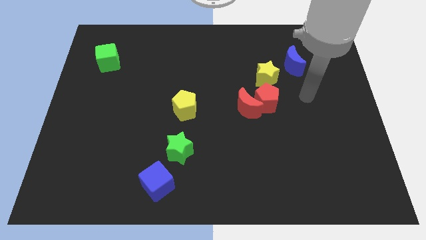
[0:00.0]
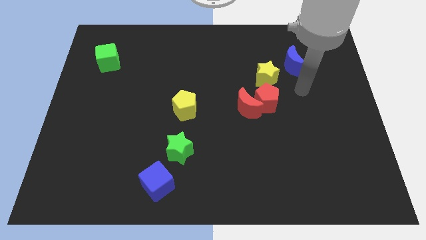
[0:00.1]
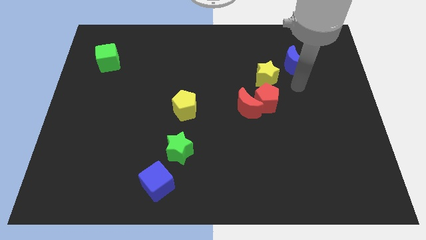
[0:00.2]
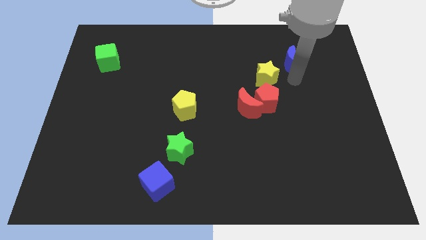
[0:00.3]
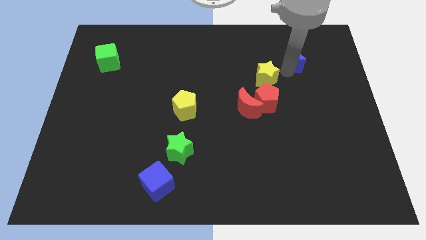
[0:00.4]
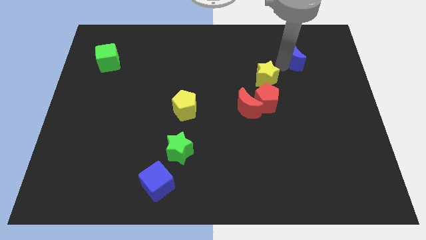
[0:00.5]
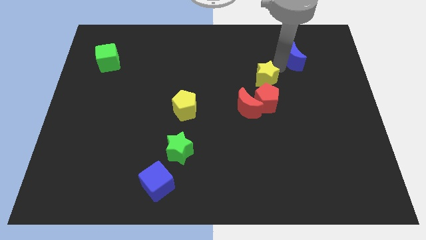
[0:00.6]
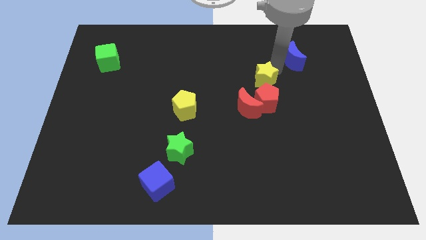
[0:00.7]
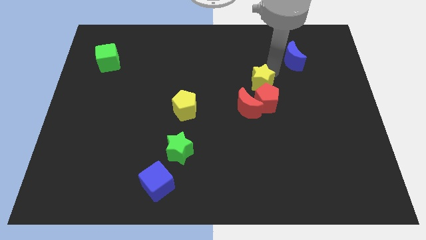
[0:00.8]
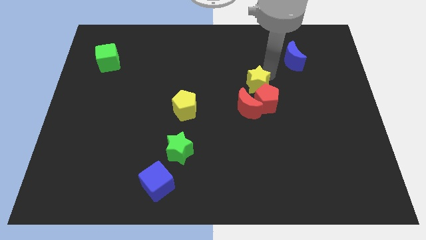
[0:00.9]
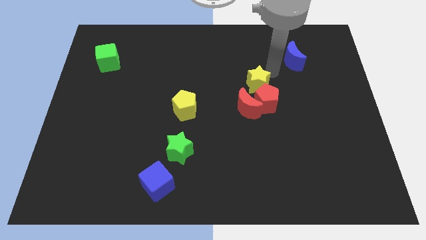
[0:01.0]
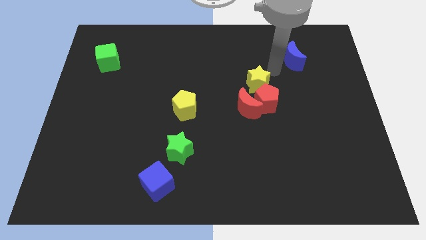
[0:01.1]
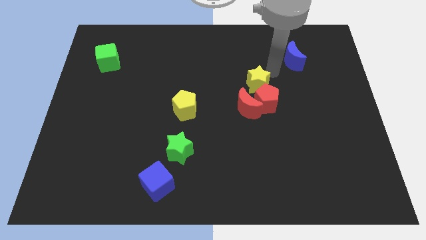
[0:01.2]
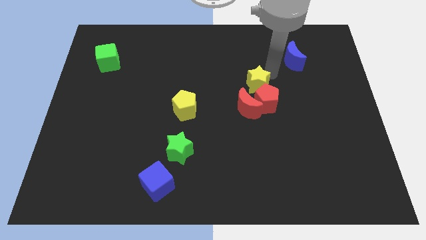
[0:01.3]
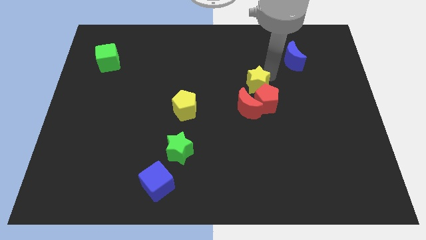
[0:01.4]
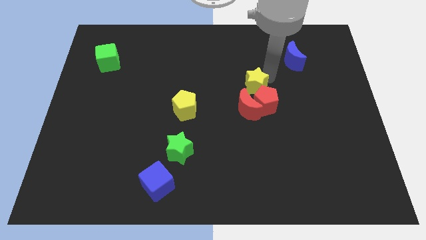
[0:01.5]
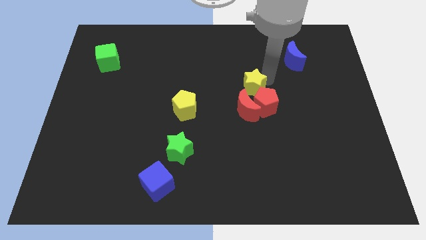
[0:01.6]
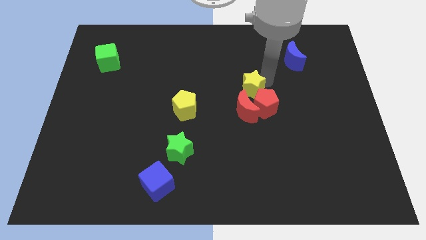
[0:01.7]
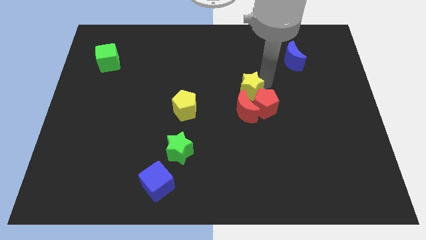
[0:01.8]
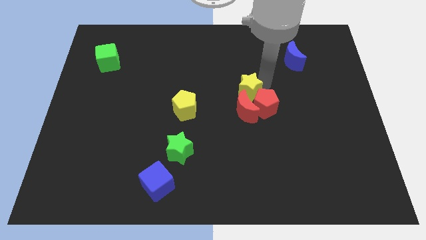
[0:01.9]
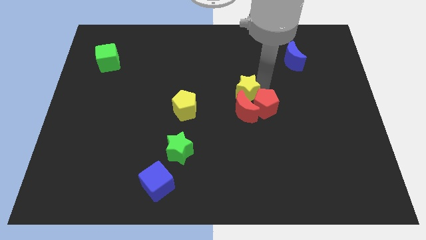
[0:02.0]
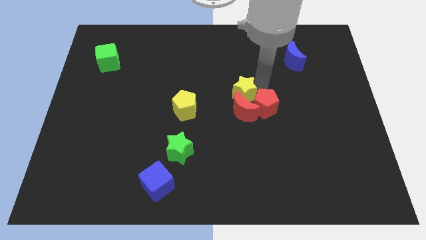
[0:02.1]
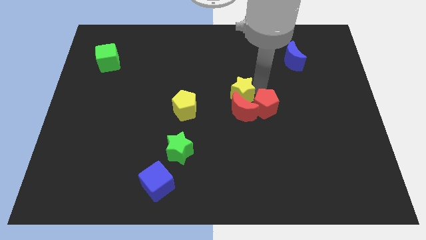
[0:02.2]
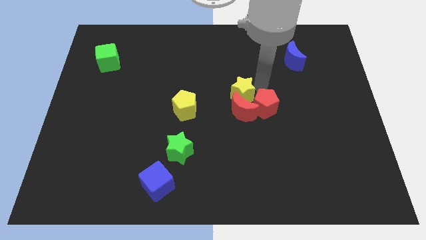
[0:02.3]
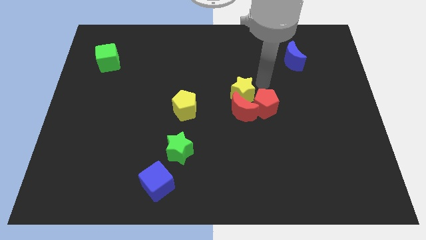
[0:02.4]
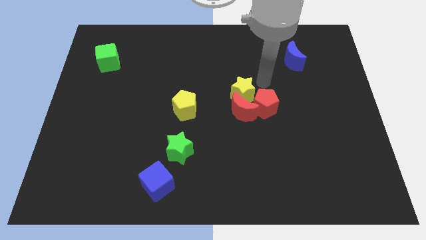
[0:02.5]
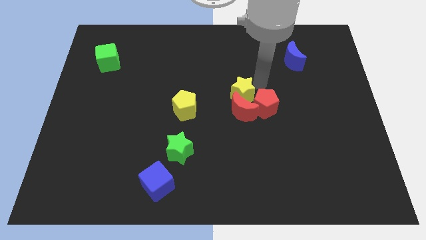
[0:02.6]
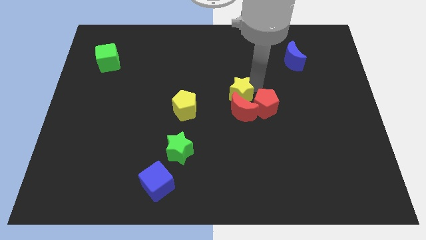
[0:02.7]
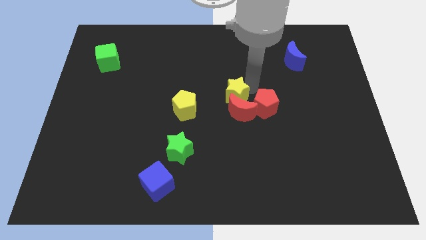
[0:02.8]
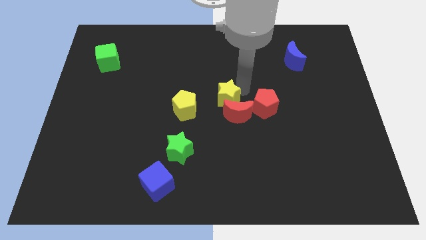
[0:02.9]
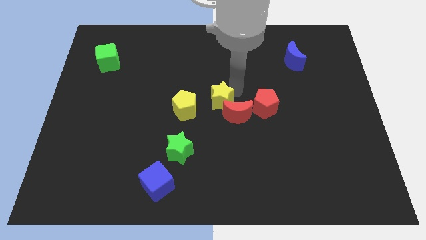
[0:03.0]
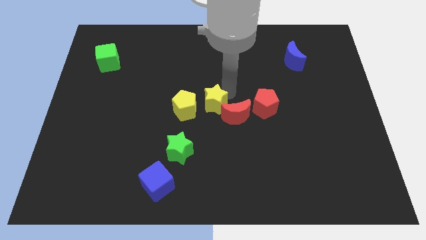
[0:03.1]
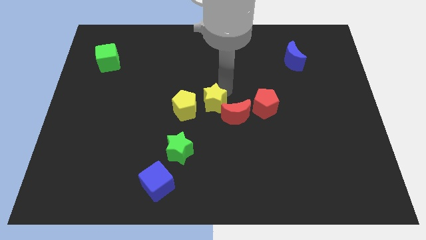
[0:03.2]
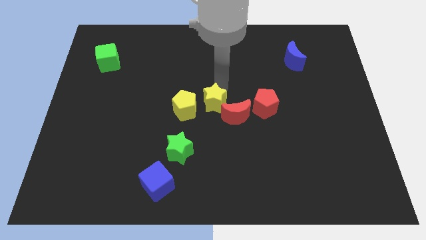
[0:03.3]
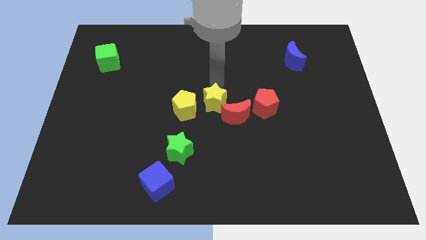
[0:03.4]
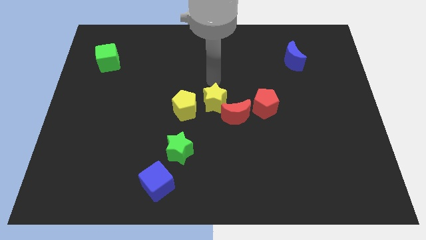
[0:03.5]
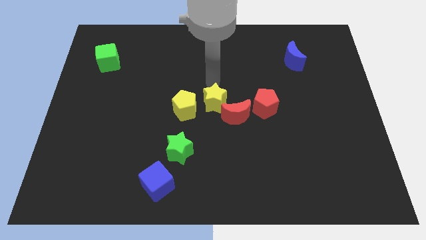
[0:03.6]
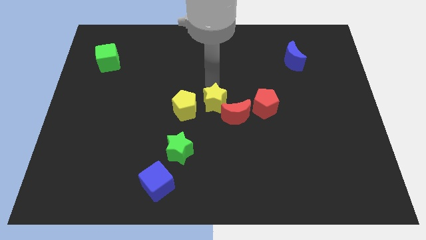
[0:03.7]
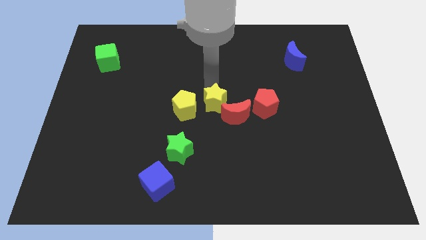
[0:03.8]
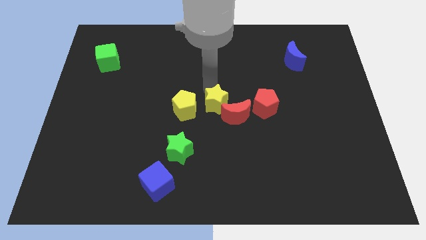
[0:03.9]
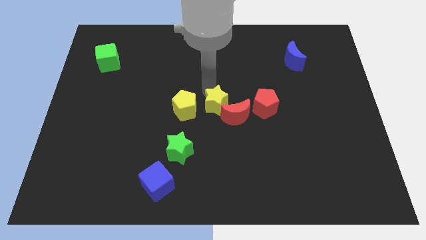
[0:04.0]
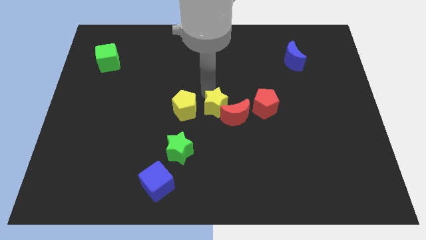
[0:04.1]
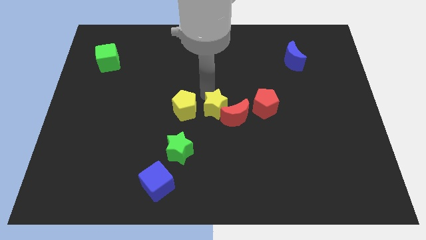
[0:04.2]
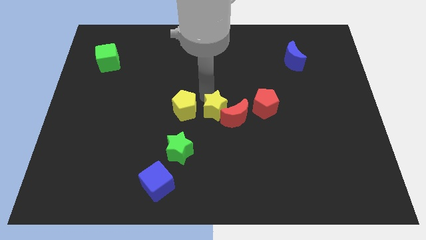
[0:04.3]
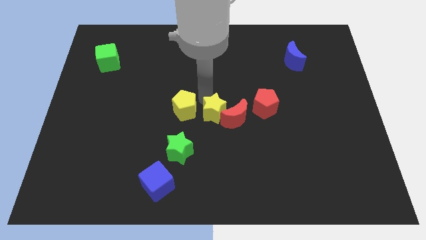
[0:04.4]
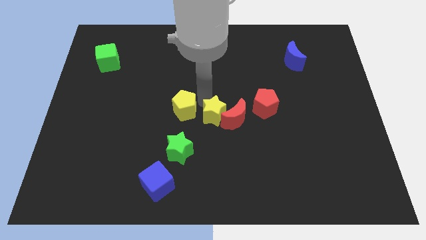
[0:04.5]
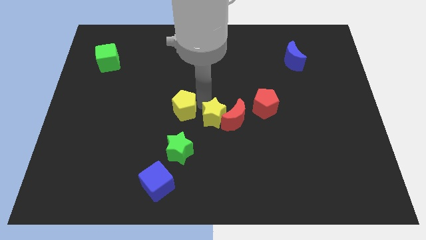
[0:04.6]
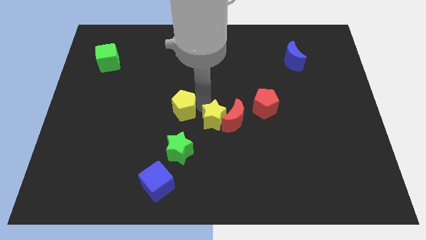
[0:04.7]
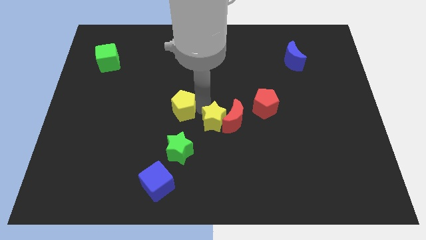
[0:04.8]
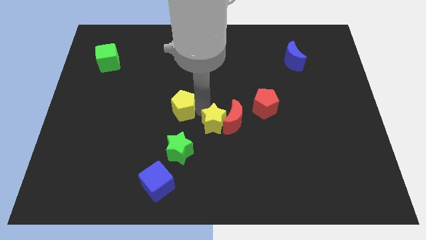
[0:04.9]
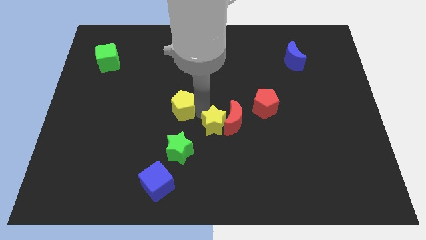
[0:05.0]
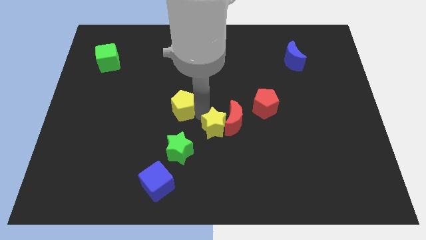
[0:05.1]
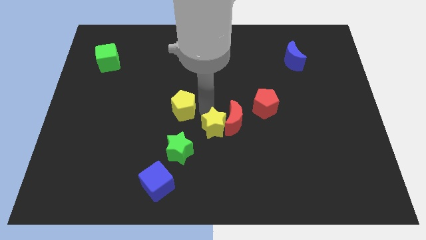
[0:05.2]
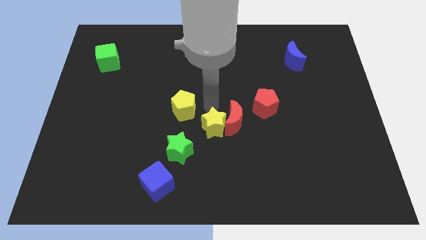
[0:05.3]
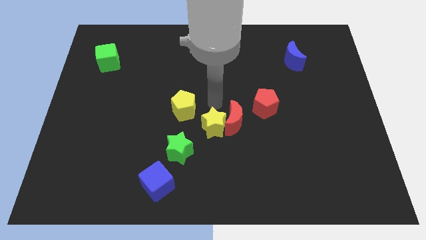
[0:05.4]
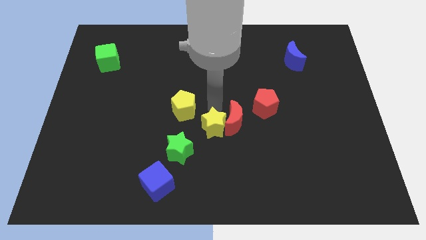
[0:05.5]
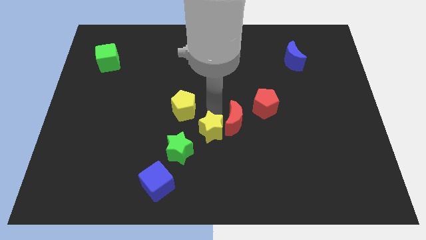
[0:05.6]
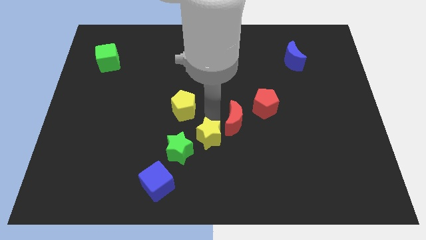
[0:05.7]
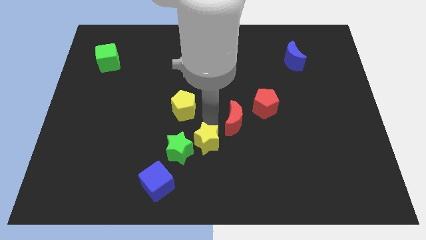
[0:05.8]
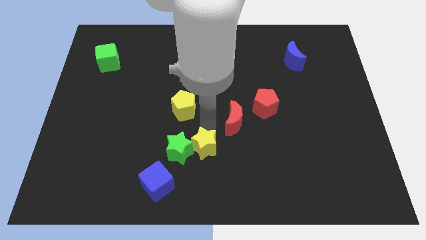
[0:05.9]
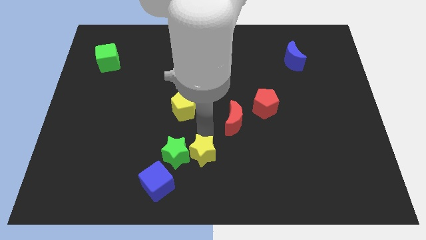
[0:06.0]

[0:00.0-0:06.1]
move the yellow star to the bottom

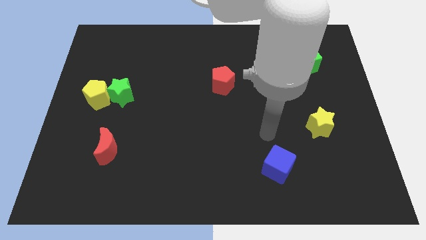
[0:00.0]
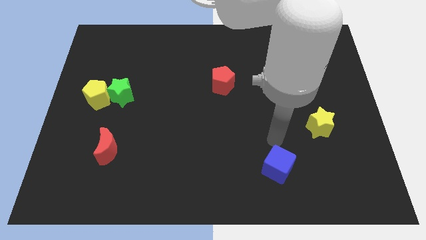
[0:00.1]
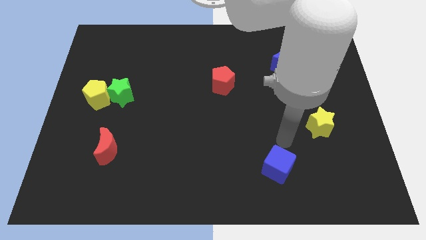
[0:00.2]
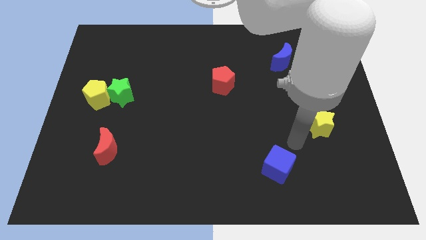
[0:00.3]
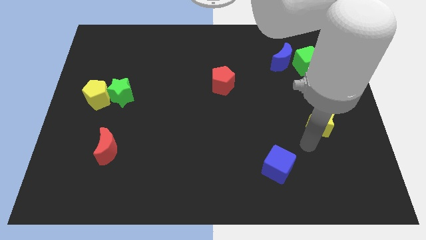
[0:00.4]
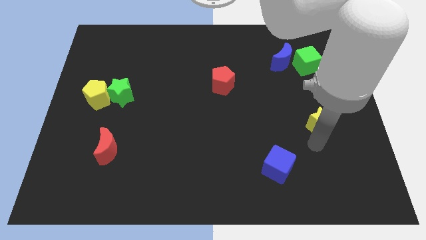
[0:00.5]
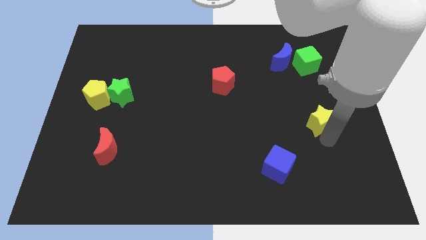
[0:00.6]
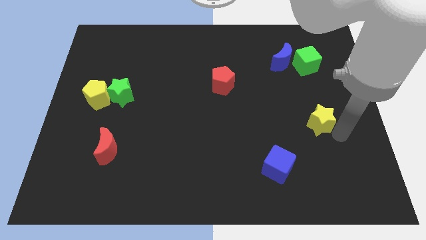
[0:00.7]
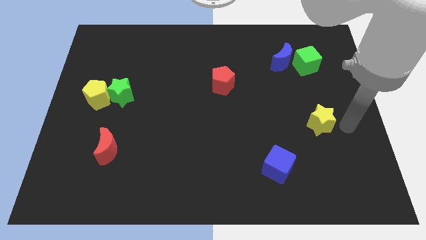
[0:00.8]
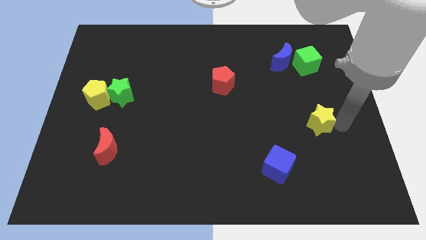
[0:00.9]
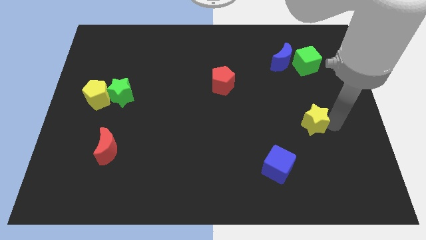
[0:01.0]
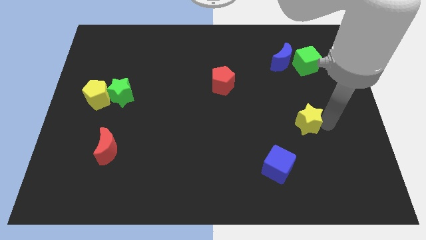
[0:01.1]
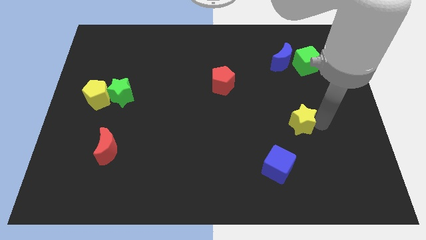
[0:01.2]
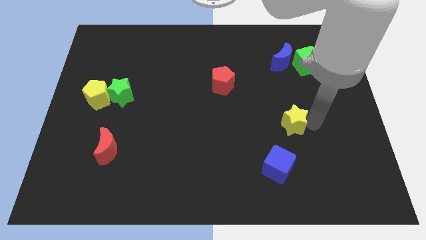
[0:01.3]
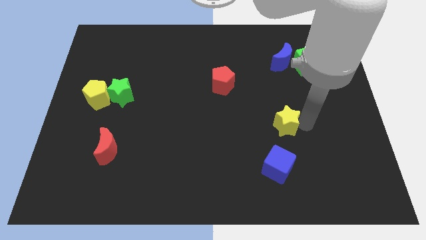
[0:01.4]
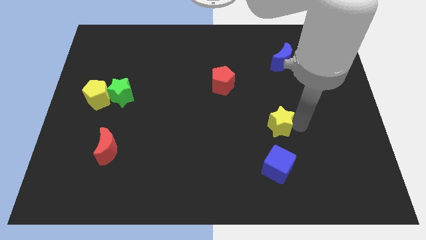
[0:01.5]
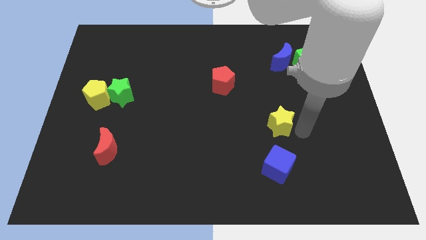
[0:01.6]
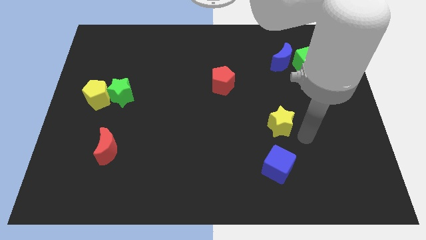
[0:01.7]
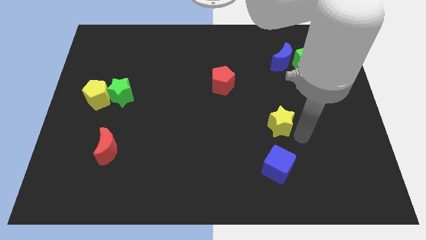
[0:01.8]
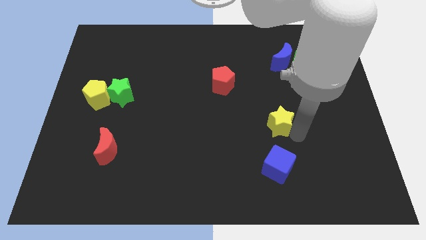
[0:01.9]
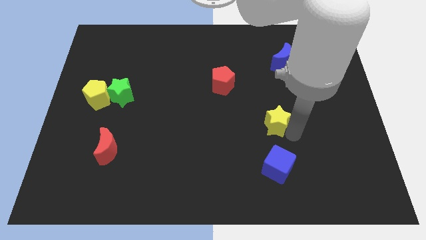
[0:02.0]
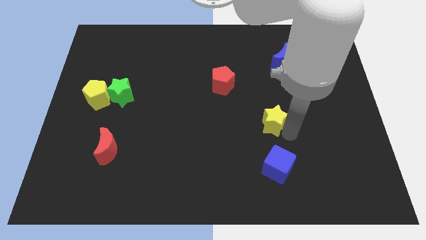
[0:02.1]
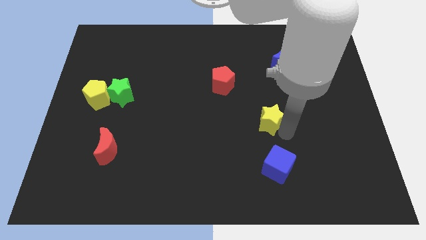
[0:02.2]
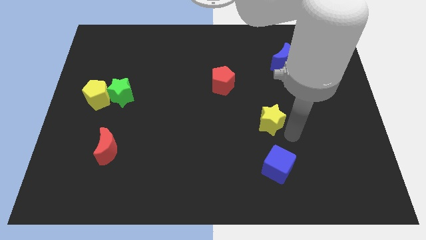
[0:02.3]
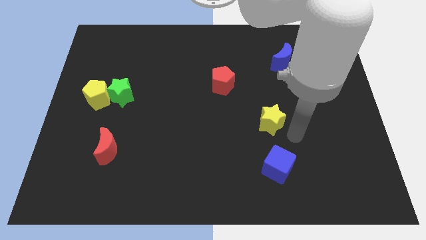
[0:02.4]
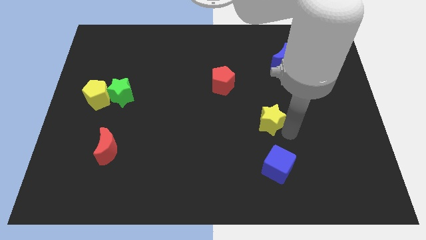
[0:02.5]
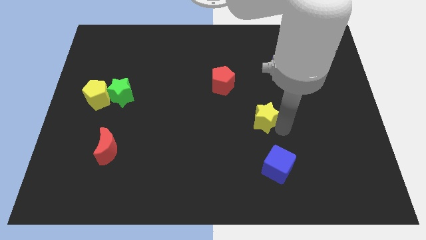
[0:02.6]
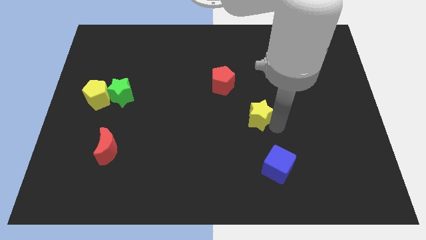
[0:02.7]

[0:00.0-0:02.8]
move the yellow star to the center
